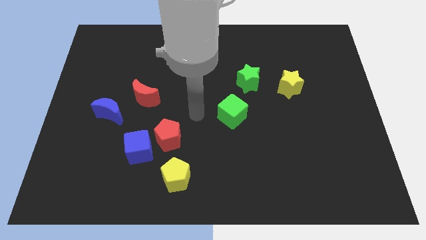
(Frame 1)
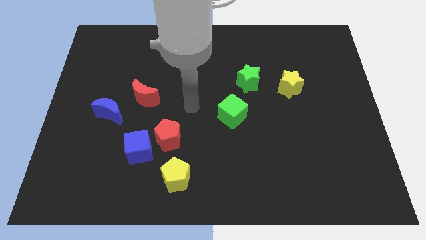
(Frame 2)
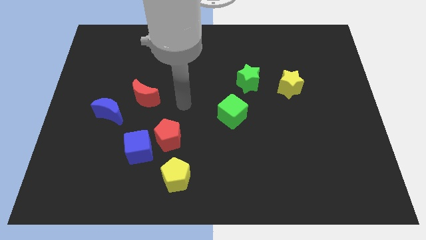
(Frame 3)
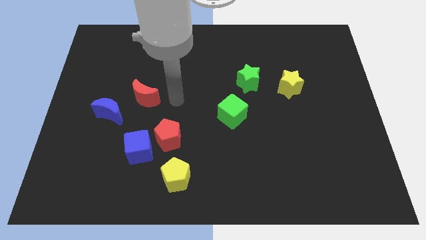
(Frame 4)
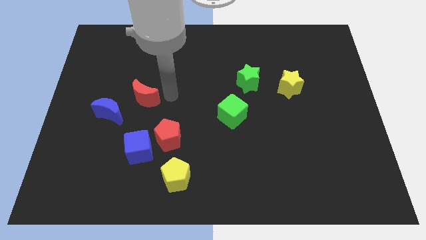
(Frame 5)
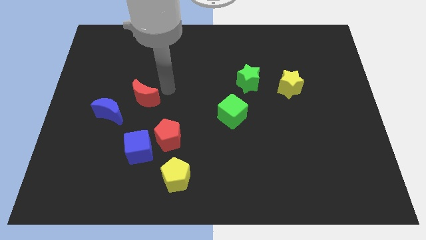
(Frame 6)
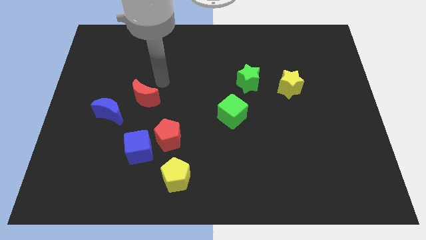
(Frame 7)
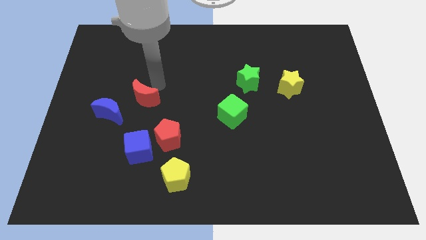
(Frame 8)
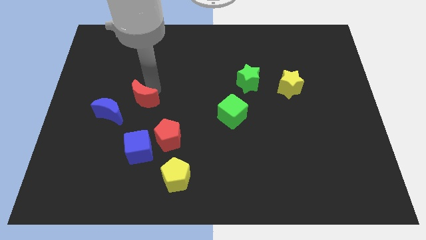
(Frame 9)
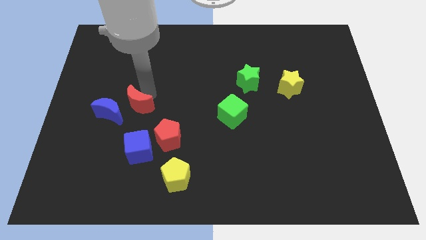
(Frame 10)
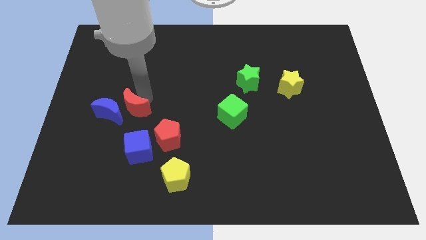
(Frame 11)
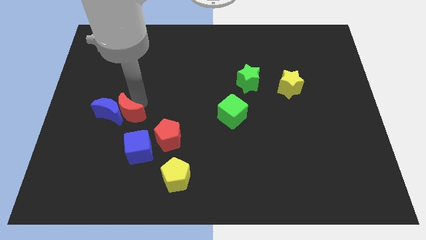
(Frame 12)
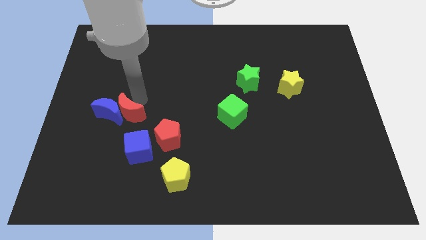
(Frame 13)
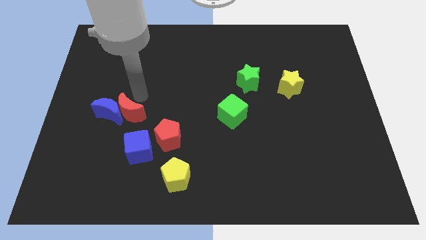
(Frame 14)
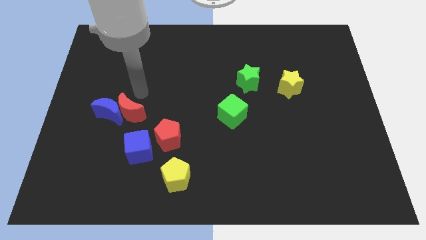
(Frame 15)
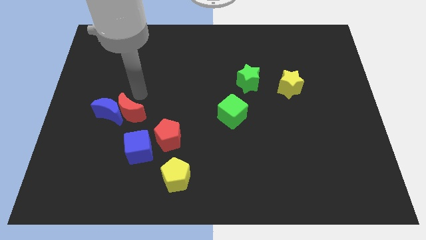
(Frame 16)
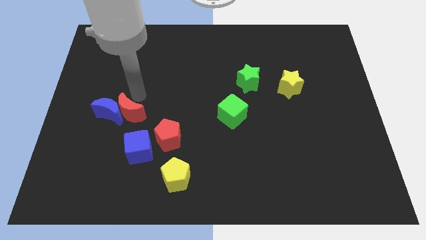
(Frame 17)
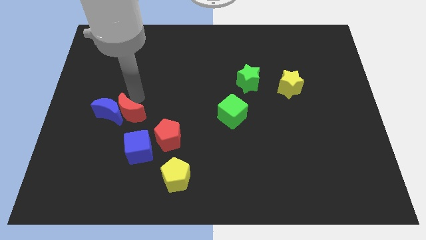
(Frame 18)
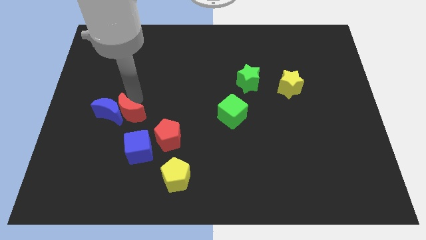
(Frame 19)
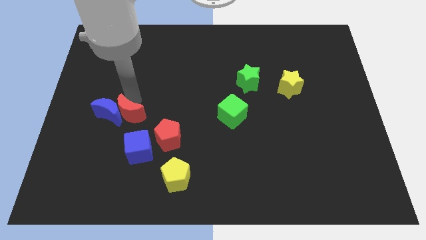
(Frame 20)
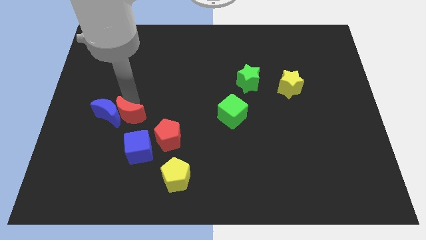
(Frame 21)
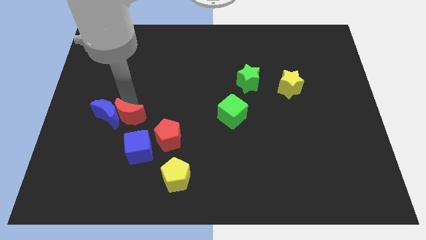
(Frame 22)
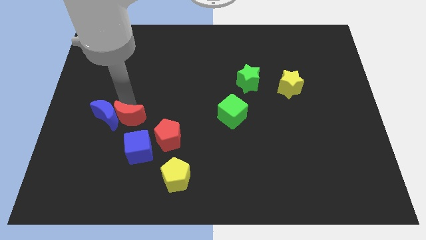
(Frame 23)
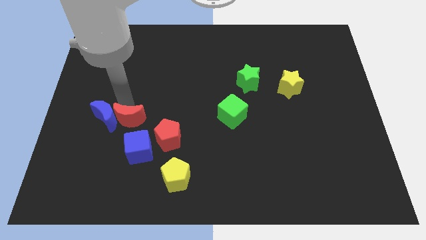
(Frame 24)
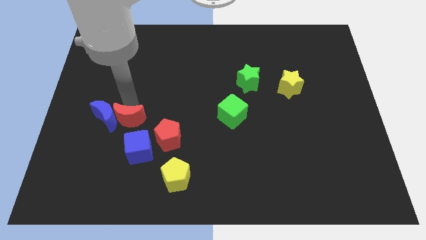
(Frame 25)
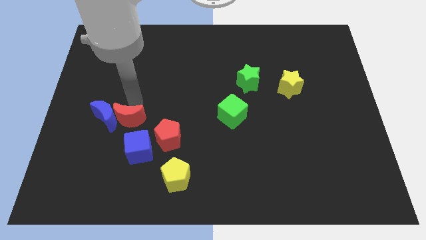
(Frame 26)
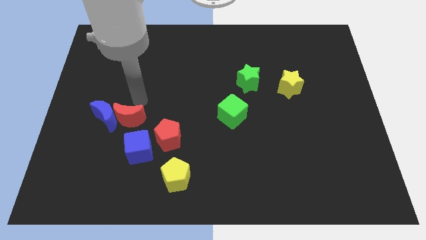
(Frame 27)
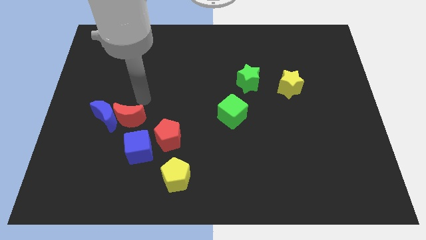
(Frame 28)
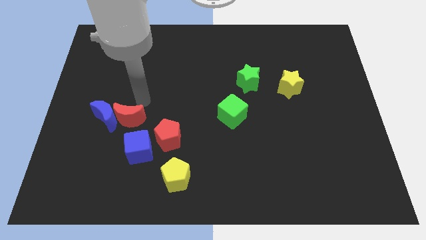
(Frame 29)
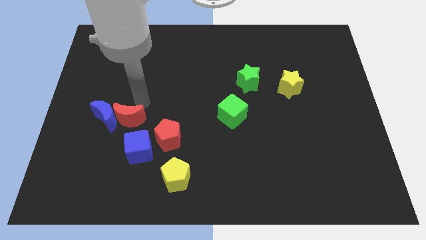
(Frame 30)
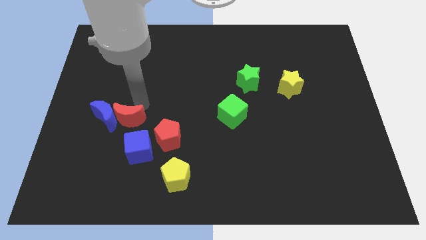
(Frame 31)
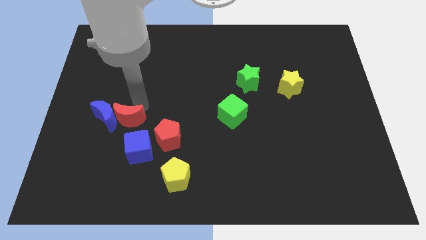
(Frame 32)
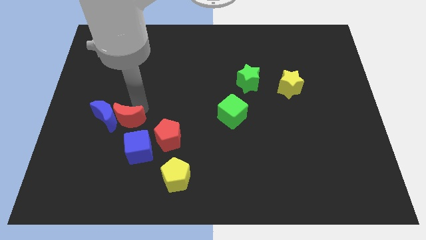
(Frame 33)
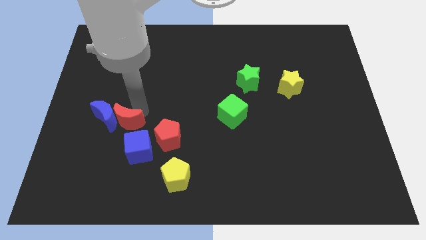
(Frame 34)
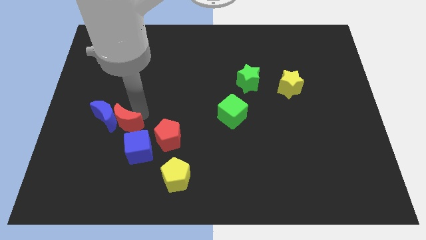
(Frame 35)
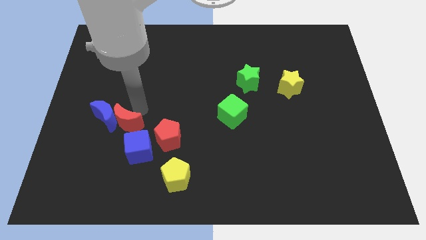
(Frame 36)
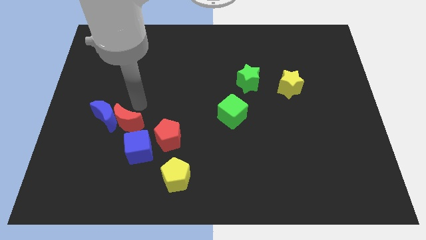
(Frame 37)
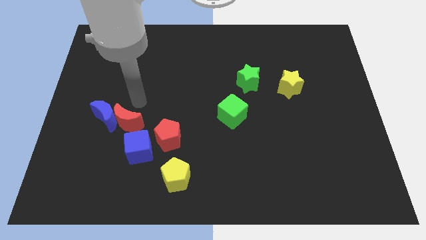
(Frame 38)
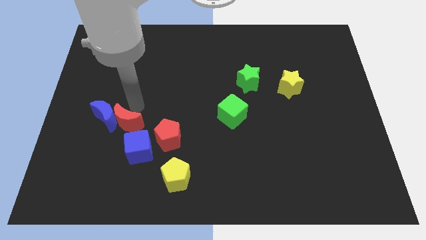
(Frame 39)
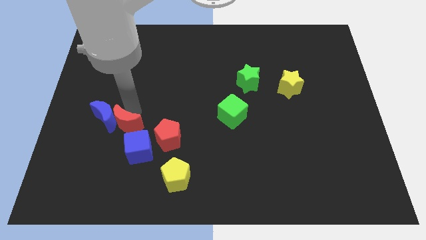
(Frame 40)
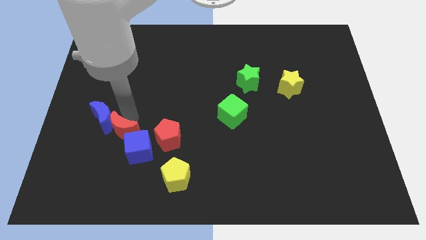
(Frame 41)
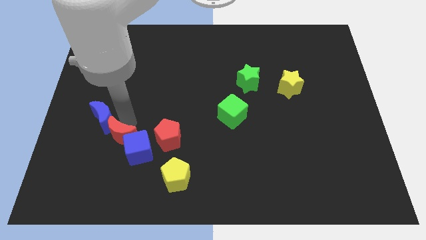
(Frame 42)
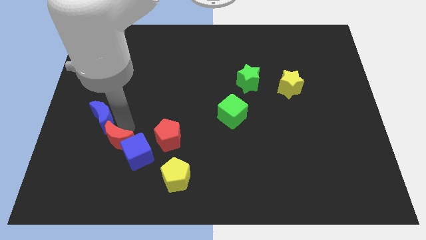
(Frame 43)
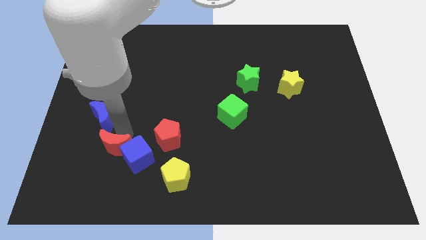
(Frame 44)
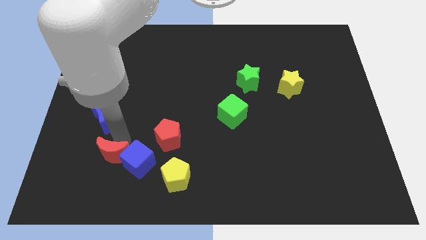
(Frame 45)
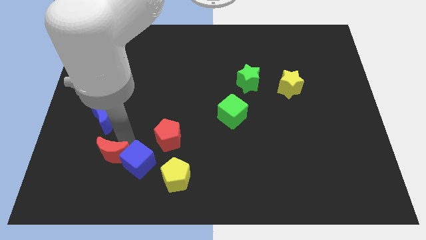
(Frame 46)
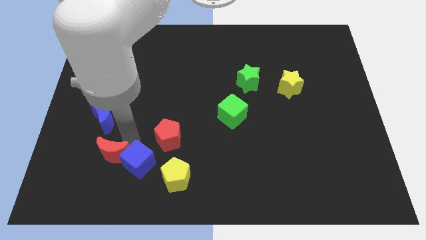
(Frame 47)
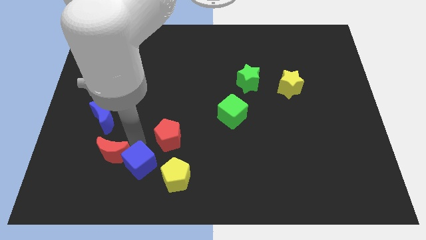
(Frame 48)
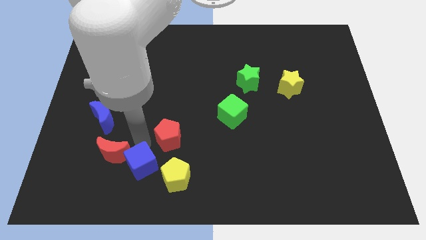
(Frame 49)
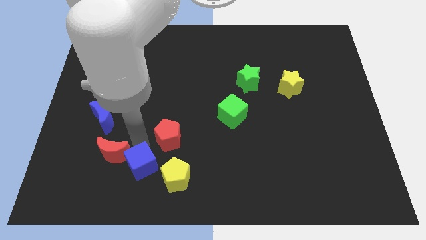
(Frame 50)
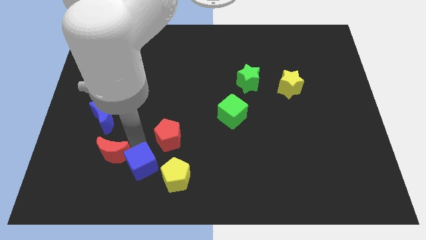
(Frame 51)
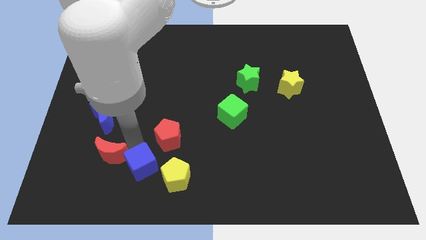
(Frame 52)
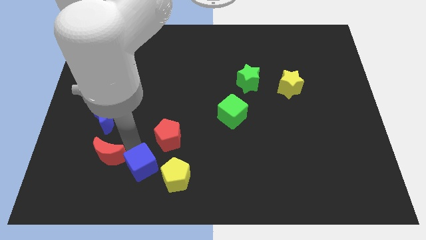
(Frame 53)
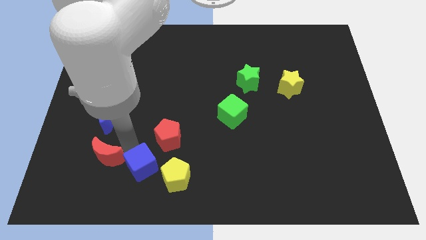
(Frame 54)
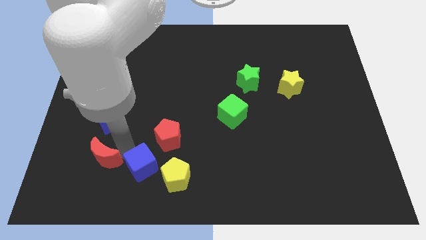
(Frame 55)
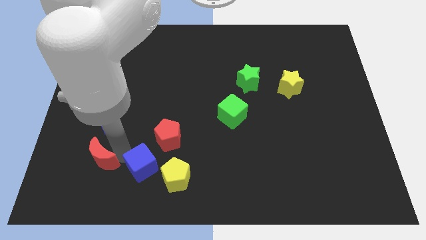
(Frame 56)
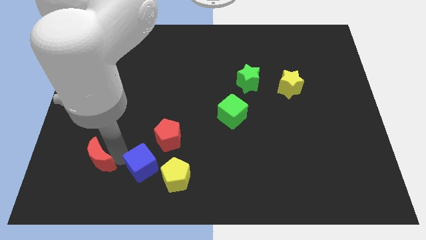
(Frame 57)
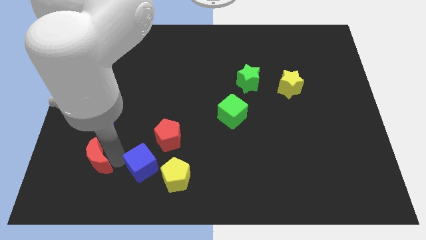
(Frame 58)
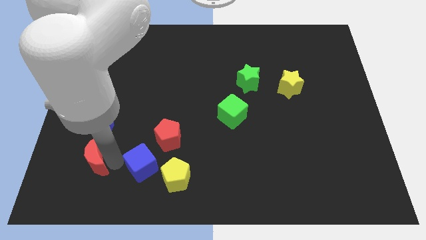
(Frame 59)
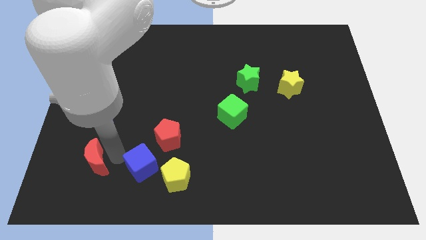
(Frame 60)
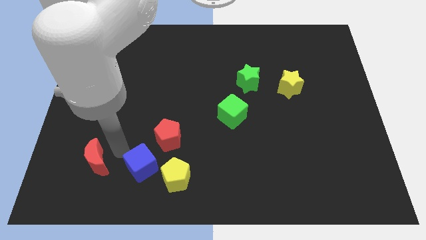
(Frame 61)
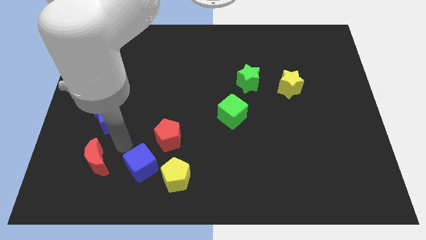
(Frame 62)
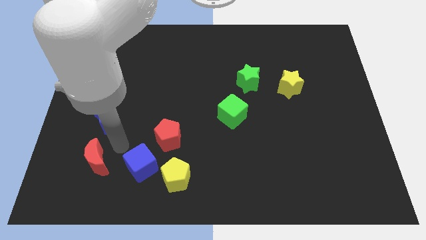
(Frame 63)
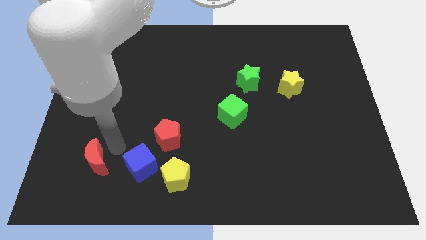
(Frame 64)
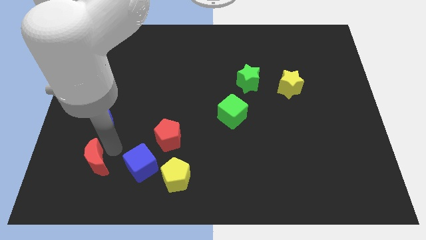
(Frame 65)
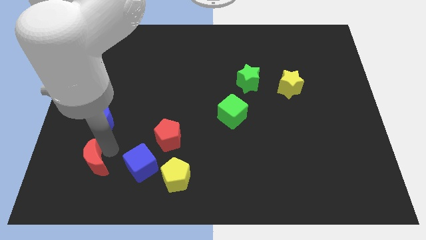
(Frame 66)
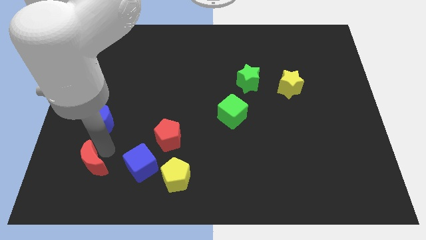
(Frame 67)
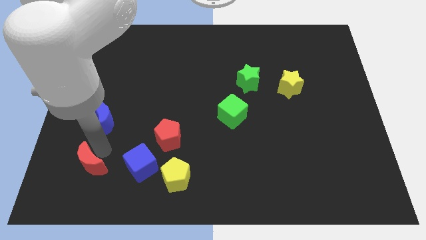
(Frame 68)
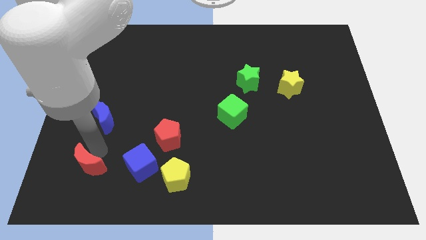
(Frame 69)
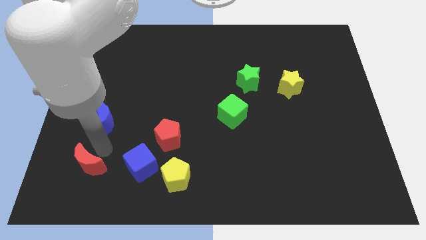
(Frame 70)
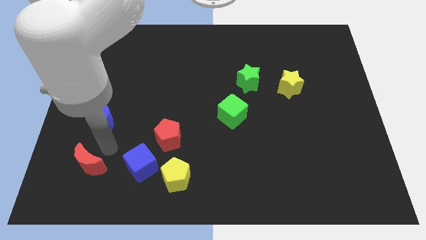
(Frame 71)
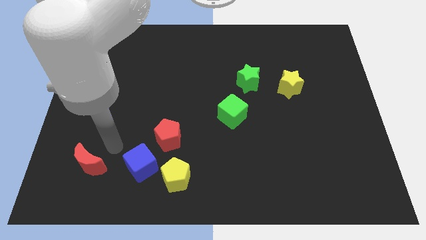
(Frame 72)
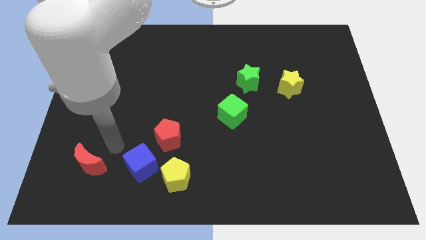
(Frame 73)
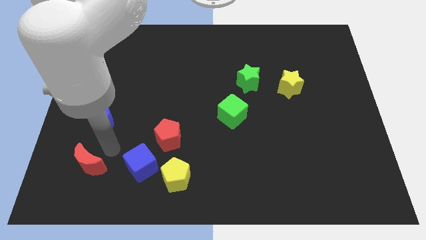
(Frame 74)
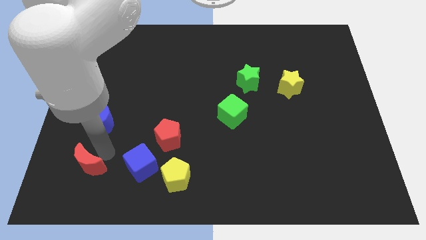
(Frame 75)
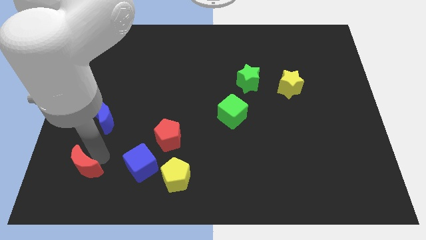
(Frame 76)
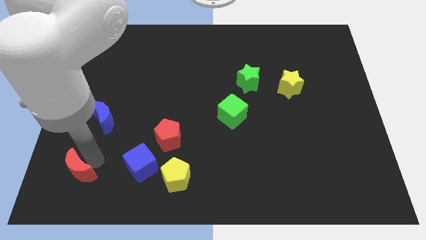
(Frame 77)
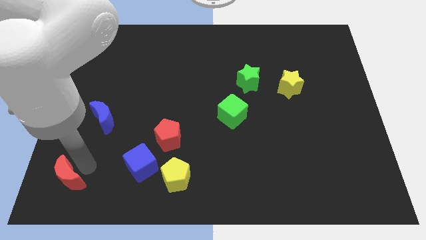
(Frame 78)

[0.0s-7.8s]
push the red moon to the lower left corner
